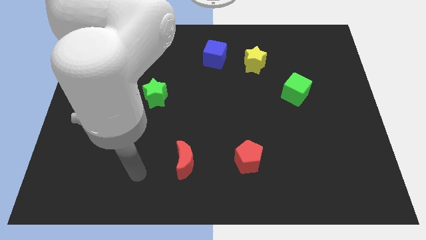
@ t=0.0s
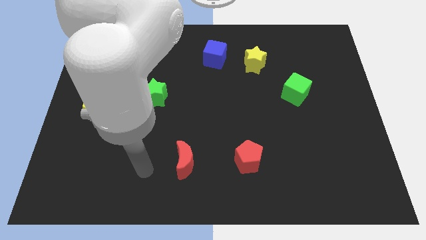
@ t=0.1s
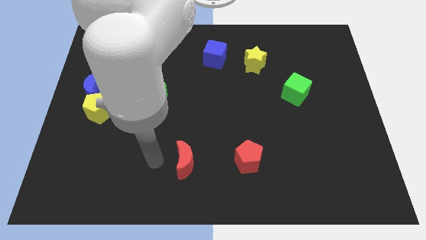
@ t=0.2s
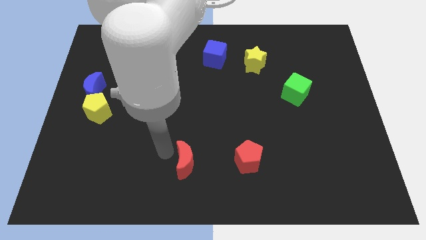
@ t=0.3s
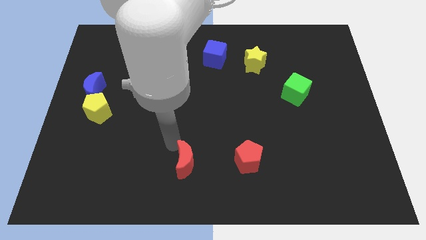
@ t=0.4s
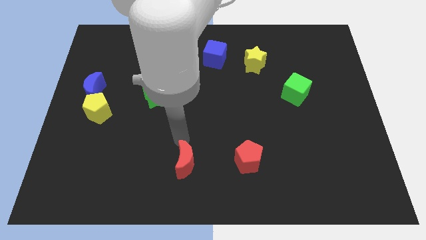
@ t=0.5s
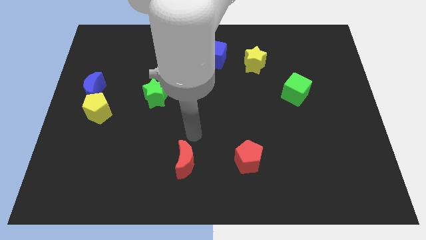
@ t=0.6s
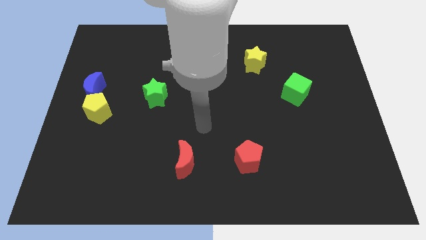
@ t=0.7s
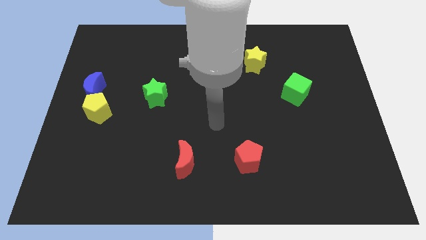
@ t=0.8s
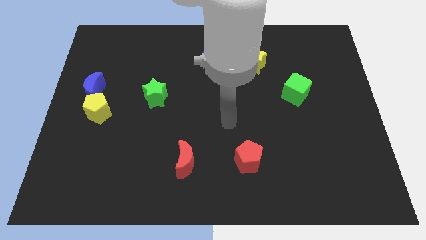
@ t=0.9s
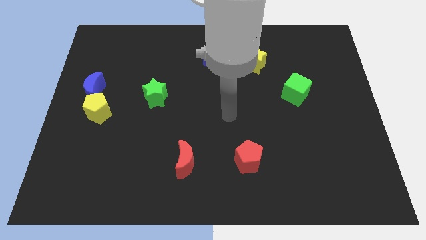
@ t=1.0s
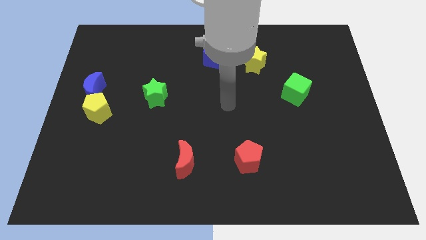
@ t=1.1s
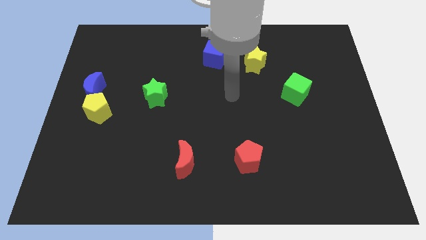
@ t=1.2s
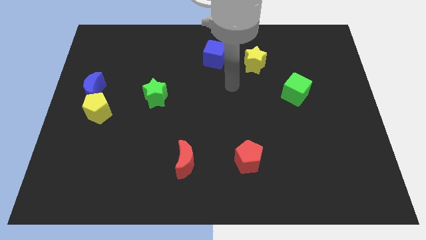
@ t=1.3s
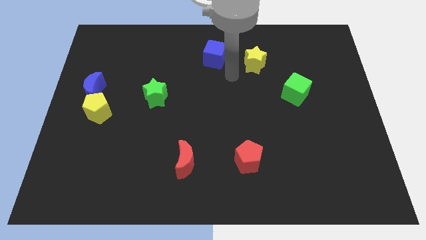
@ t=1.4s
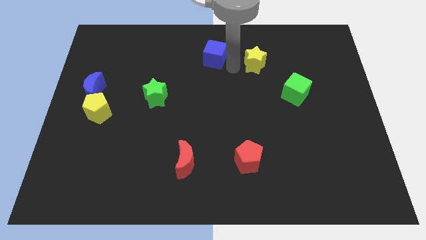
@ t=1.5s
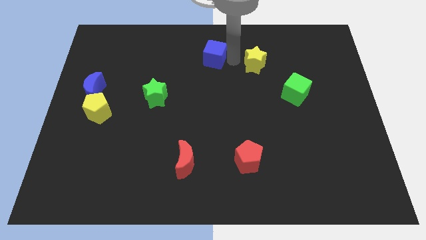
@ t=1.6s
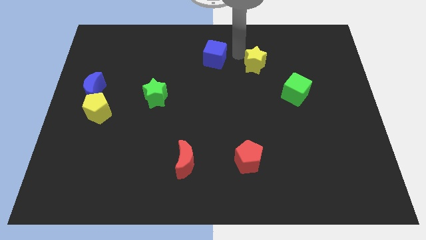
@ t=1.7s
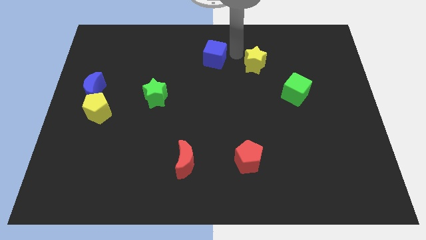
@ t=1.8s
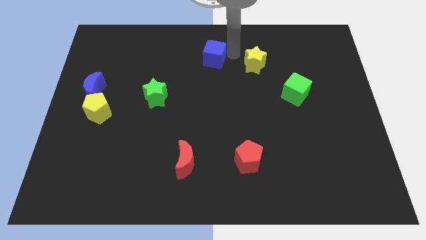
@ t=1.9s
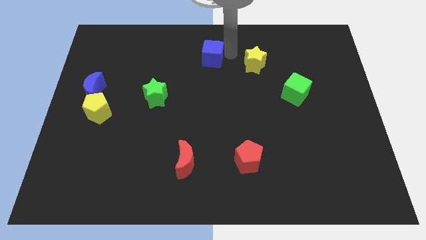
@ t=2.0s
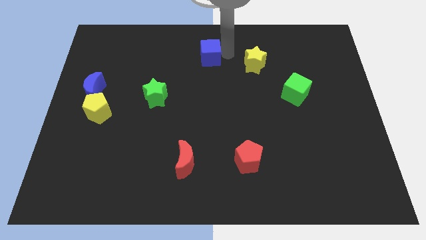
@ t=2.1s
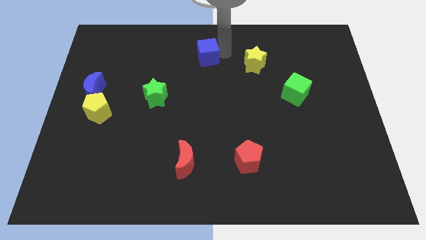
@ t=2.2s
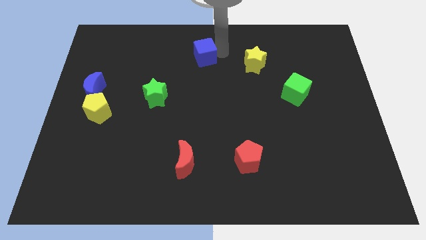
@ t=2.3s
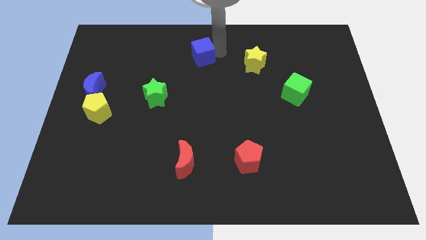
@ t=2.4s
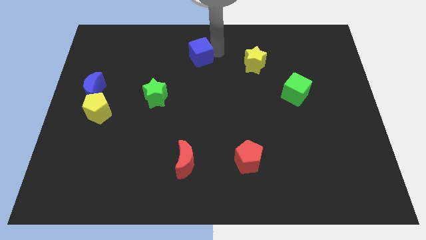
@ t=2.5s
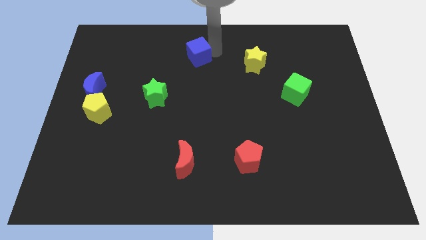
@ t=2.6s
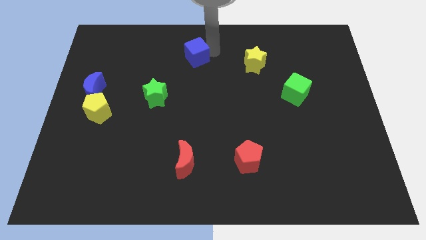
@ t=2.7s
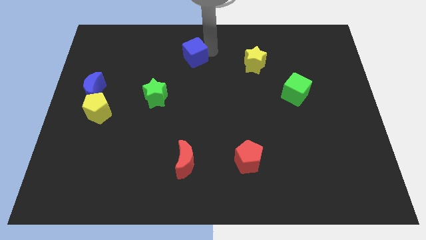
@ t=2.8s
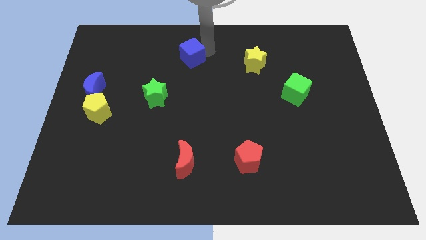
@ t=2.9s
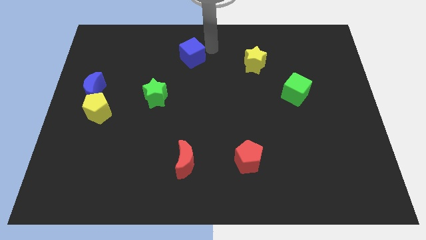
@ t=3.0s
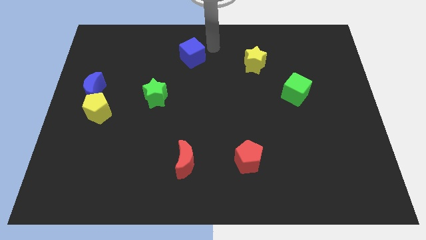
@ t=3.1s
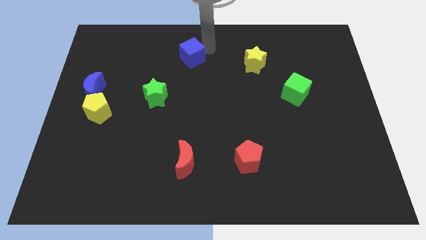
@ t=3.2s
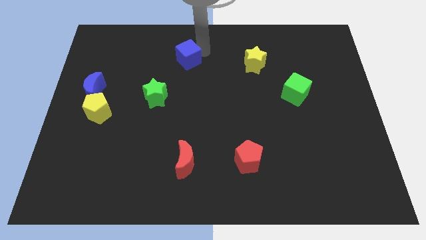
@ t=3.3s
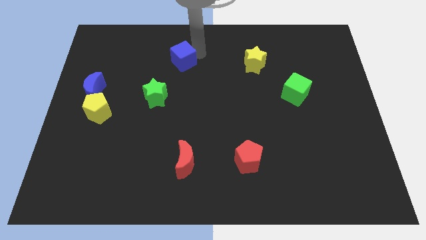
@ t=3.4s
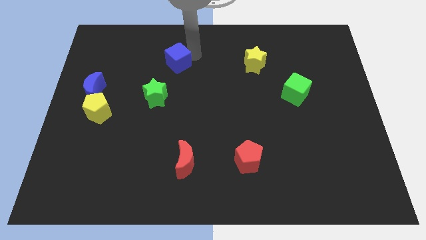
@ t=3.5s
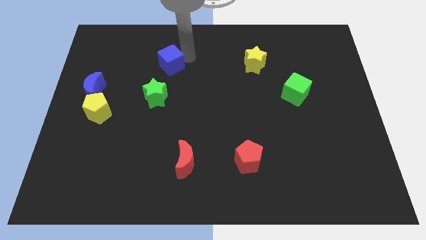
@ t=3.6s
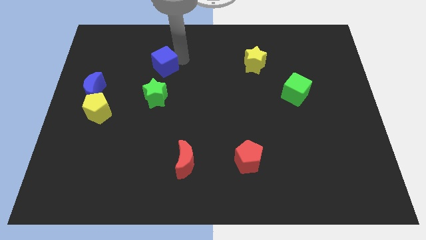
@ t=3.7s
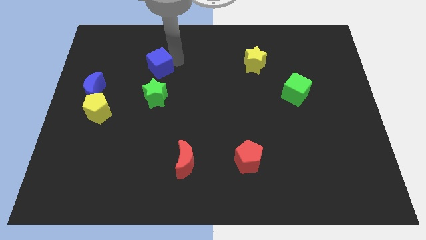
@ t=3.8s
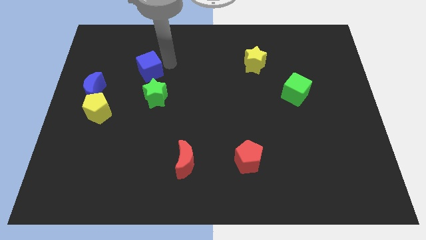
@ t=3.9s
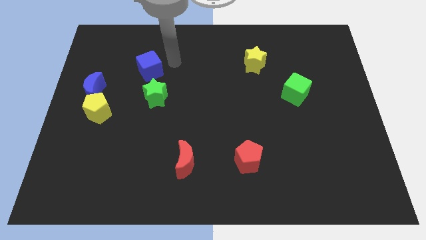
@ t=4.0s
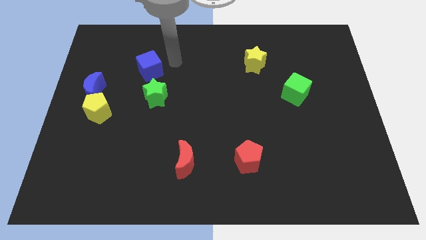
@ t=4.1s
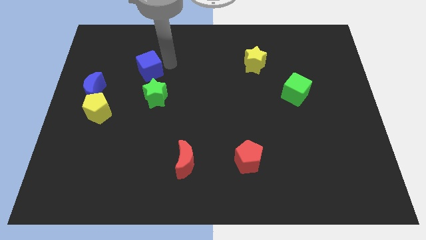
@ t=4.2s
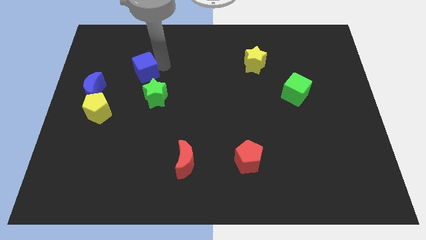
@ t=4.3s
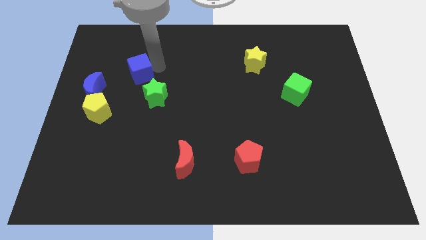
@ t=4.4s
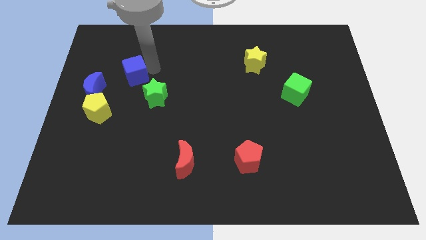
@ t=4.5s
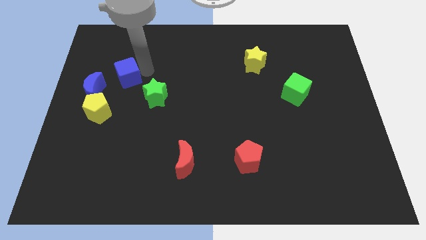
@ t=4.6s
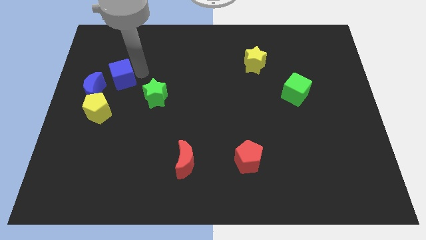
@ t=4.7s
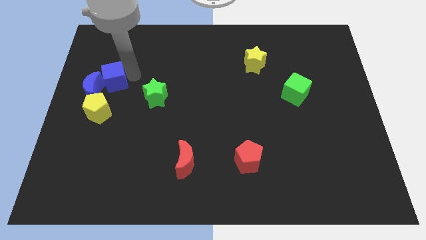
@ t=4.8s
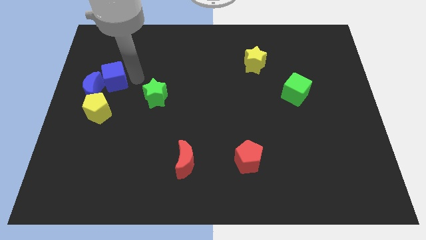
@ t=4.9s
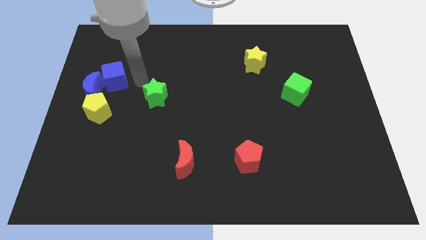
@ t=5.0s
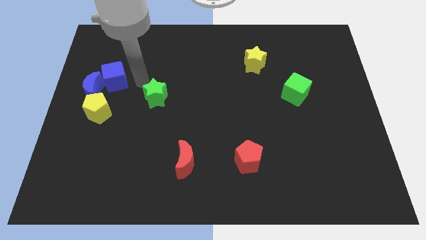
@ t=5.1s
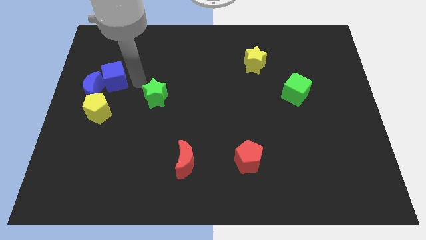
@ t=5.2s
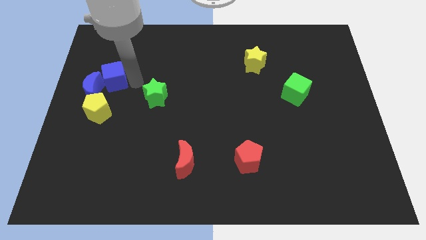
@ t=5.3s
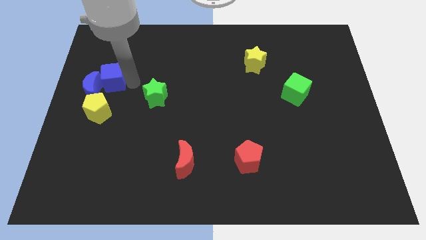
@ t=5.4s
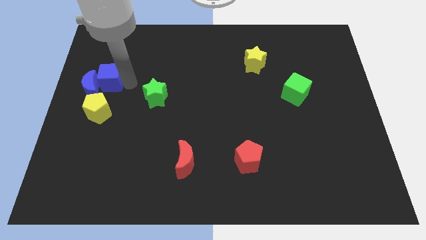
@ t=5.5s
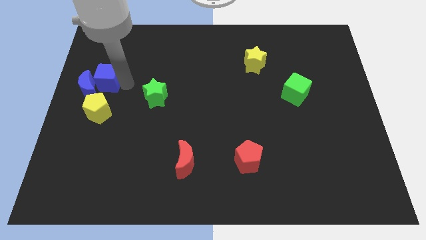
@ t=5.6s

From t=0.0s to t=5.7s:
put the blue cube to the left side of the board
